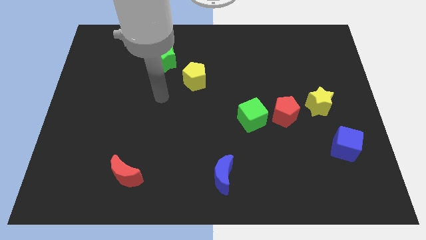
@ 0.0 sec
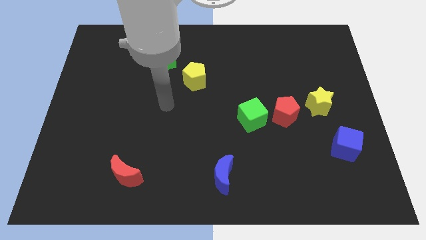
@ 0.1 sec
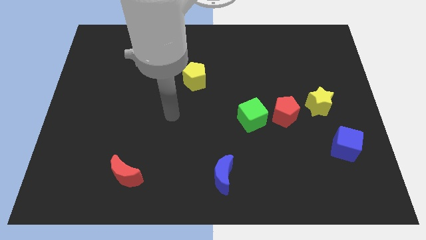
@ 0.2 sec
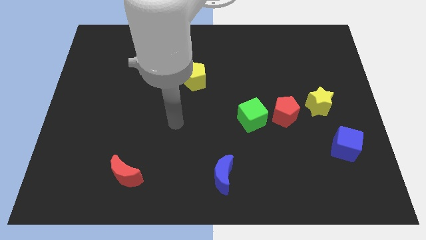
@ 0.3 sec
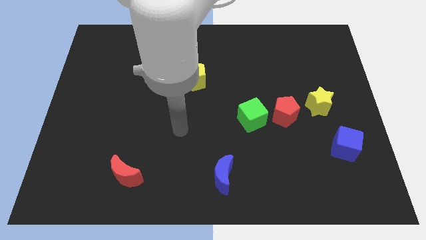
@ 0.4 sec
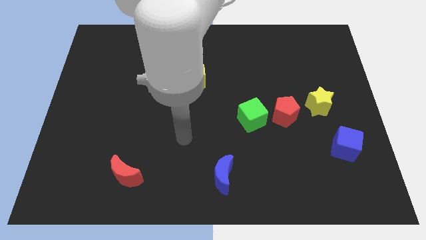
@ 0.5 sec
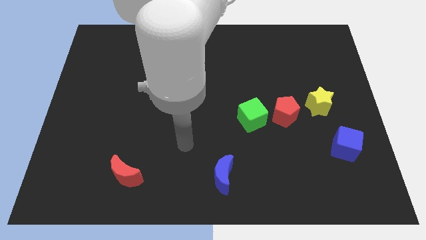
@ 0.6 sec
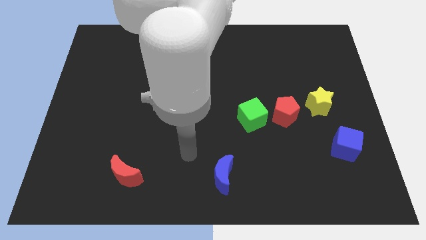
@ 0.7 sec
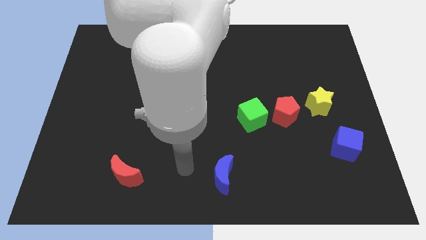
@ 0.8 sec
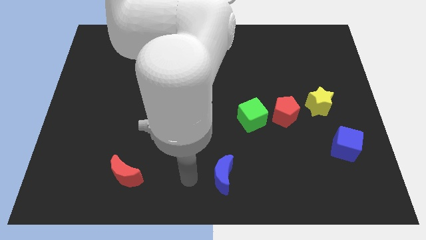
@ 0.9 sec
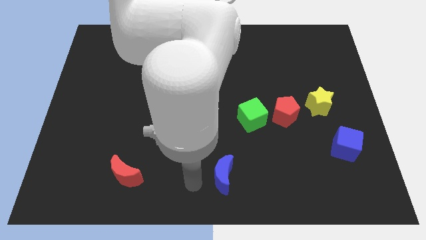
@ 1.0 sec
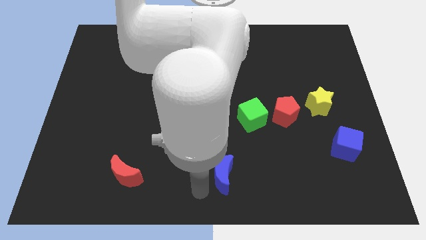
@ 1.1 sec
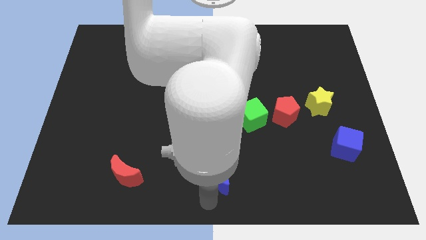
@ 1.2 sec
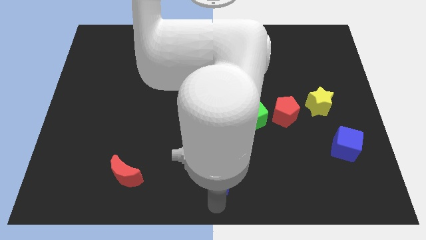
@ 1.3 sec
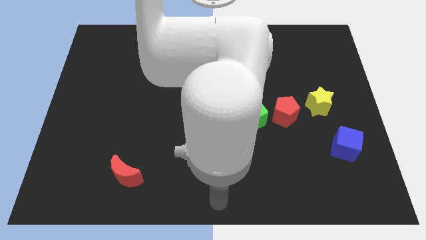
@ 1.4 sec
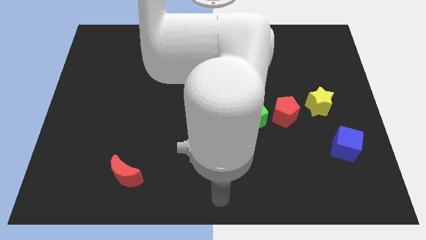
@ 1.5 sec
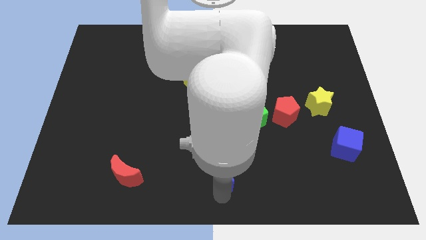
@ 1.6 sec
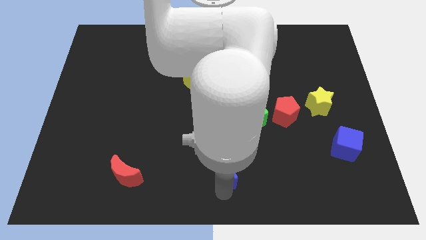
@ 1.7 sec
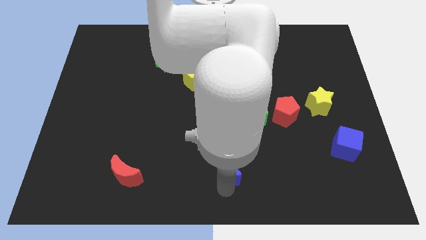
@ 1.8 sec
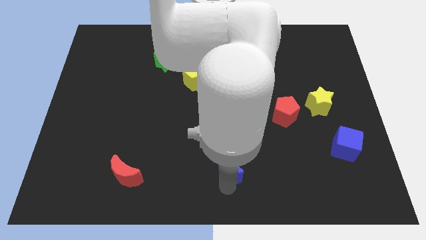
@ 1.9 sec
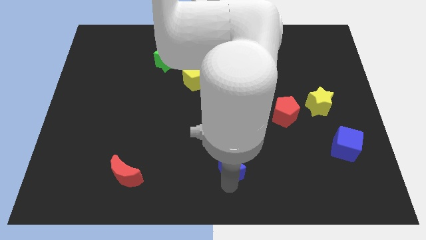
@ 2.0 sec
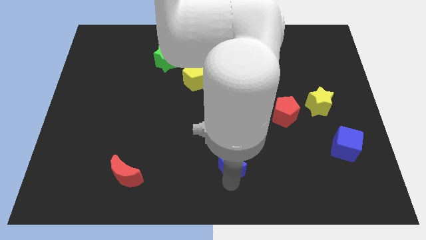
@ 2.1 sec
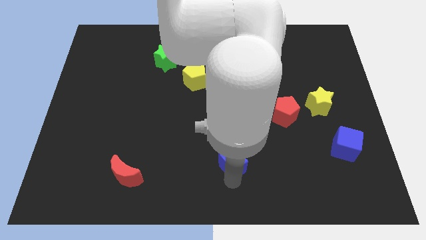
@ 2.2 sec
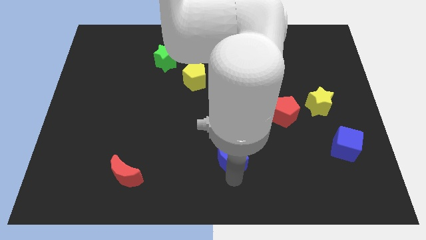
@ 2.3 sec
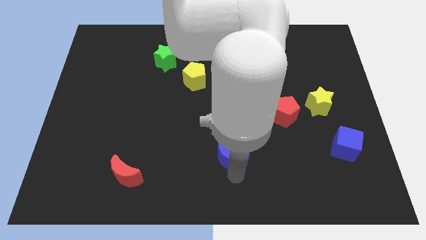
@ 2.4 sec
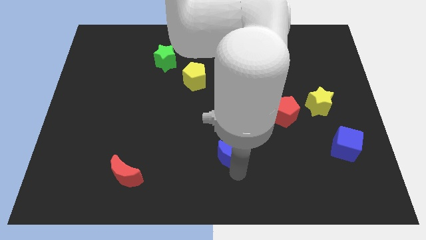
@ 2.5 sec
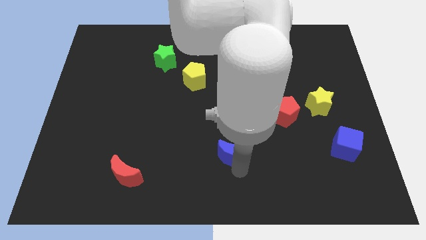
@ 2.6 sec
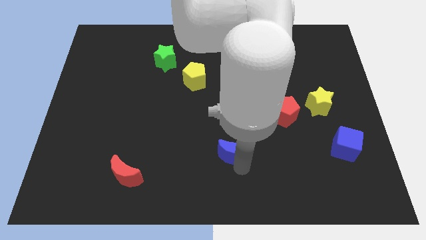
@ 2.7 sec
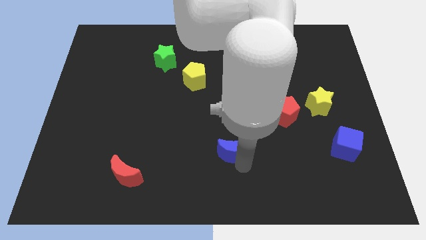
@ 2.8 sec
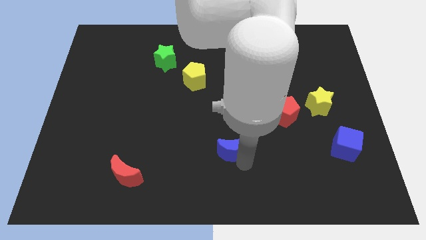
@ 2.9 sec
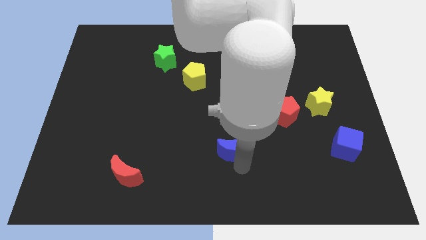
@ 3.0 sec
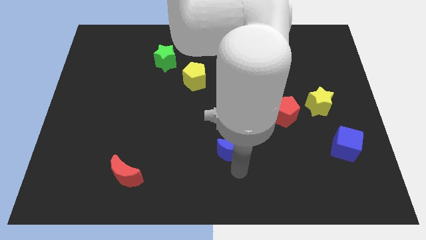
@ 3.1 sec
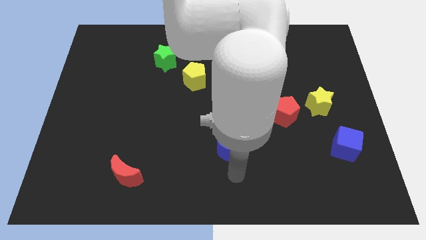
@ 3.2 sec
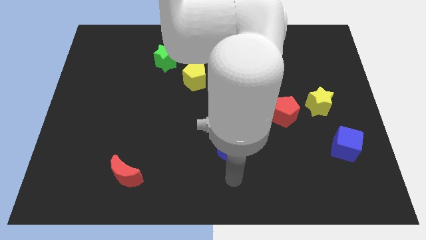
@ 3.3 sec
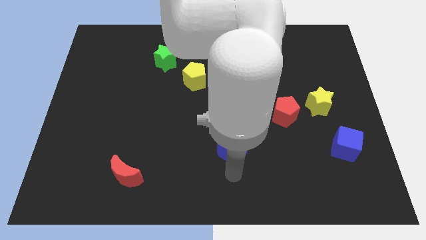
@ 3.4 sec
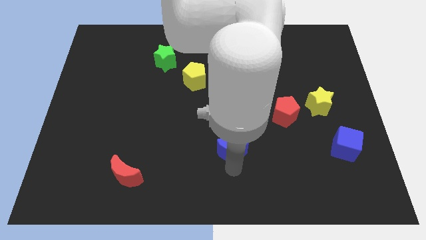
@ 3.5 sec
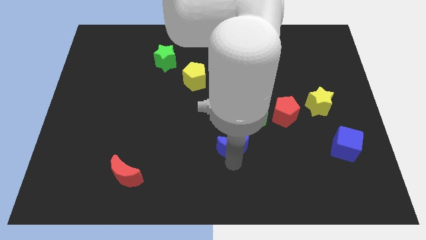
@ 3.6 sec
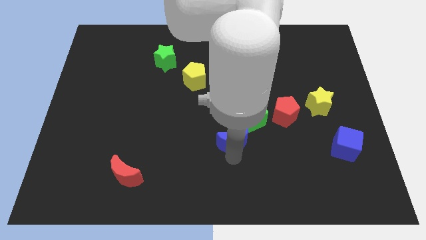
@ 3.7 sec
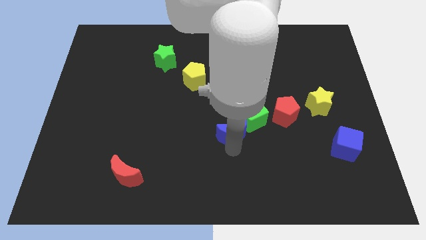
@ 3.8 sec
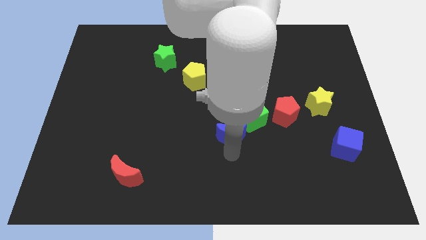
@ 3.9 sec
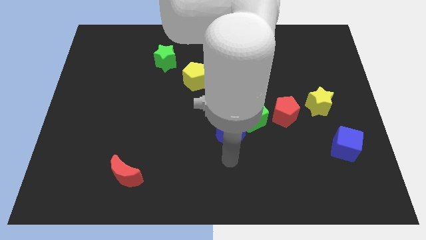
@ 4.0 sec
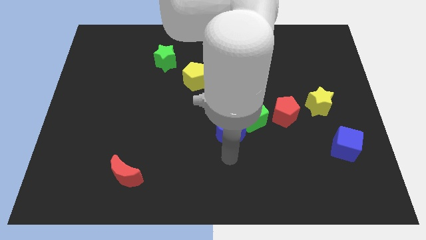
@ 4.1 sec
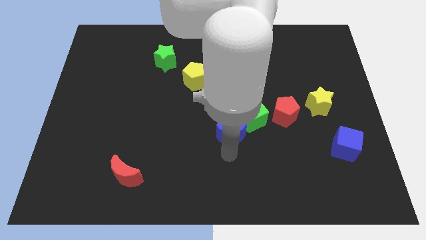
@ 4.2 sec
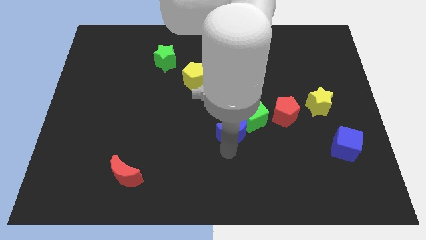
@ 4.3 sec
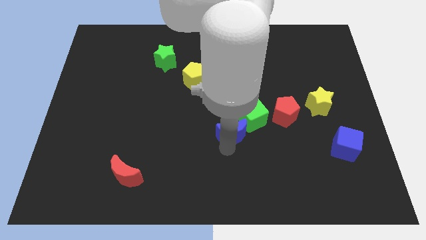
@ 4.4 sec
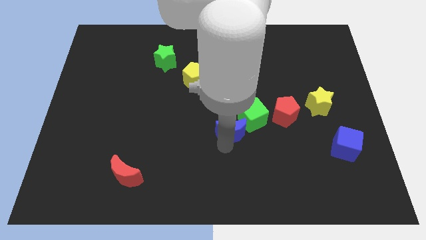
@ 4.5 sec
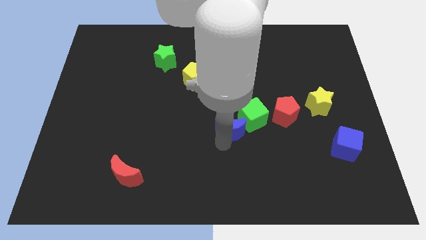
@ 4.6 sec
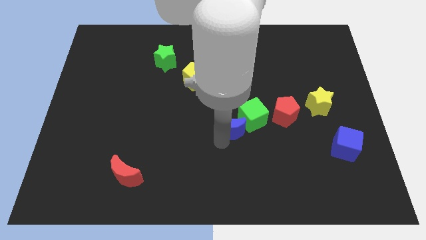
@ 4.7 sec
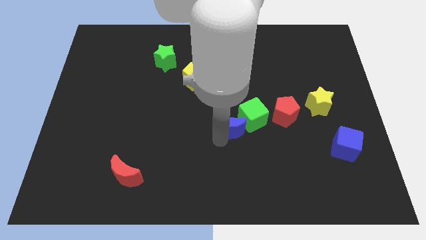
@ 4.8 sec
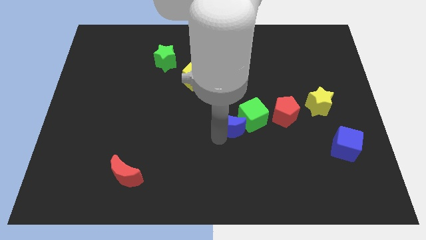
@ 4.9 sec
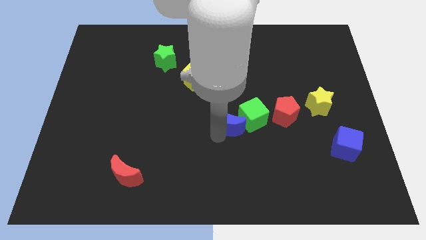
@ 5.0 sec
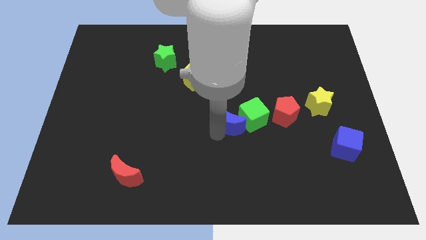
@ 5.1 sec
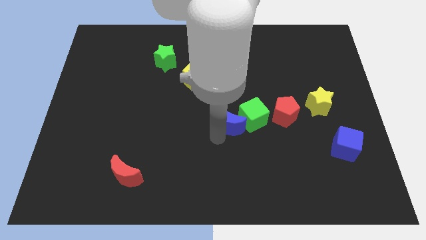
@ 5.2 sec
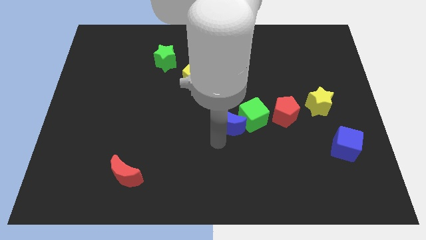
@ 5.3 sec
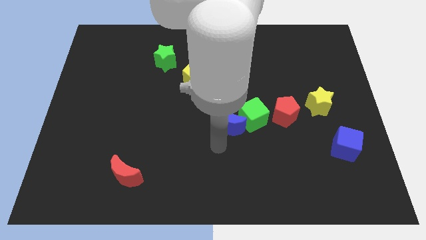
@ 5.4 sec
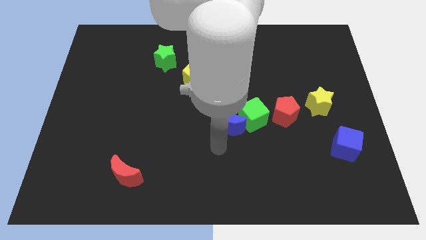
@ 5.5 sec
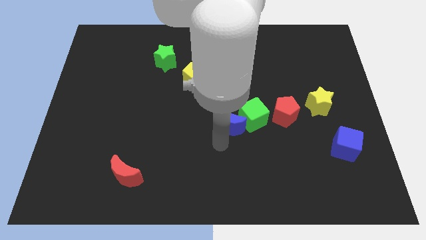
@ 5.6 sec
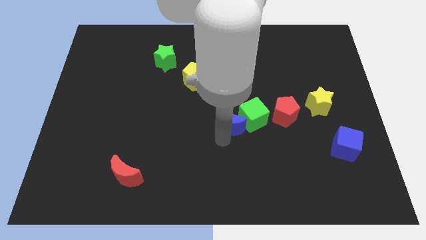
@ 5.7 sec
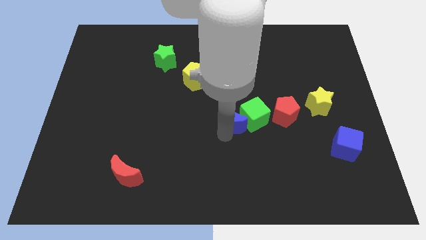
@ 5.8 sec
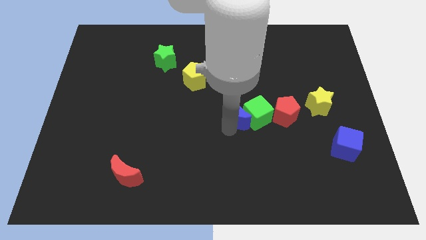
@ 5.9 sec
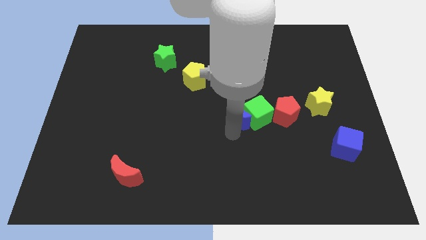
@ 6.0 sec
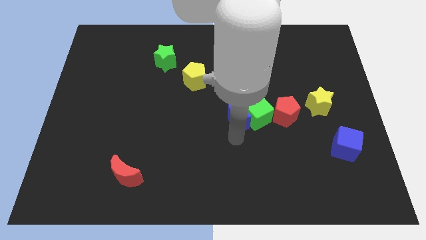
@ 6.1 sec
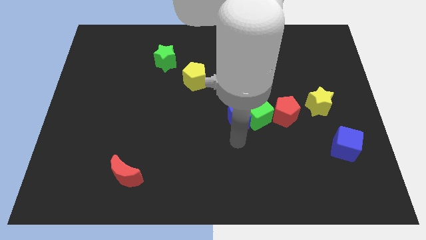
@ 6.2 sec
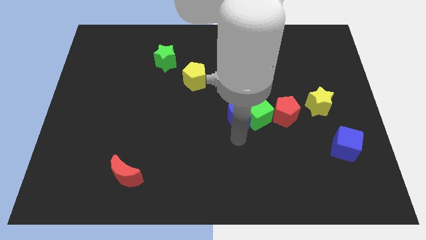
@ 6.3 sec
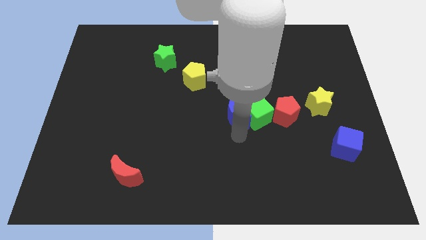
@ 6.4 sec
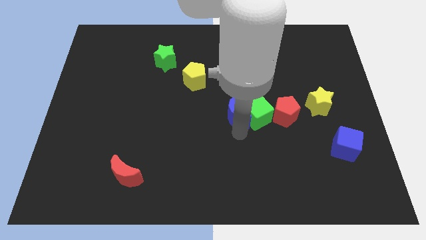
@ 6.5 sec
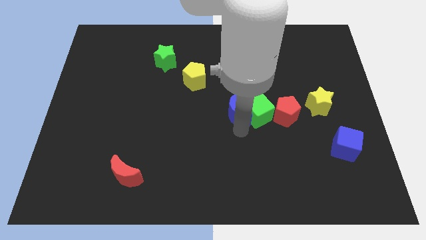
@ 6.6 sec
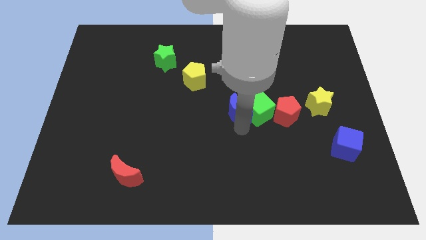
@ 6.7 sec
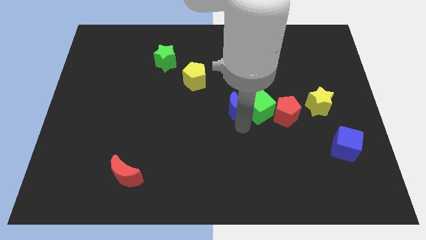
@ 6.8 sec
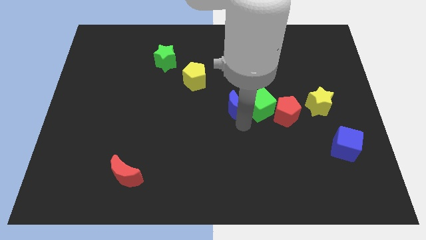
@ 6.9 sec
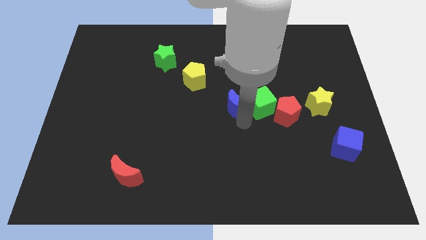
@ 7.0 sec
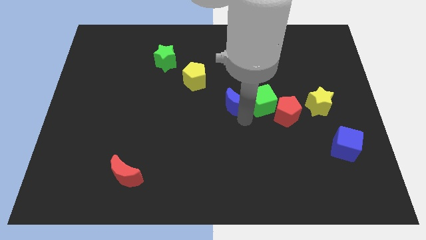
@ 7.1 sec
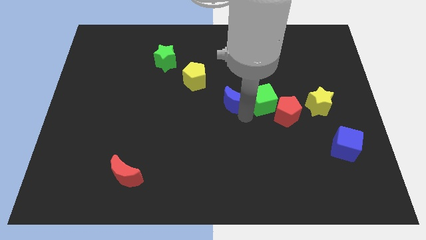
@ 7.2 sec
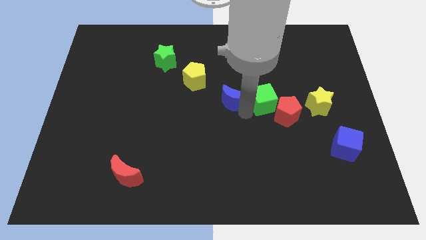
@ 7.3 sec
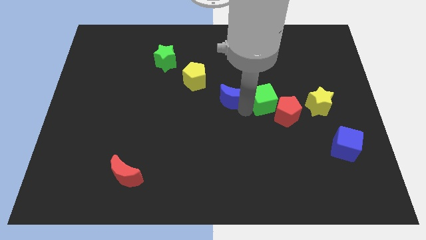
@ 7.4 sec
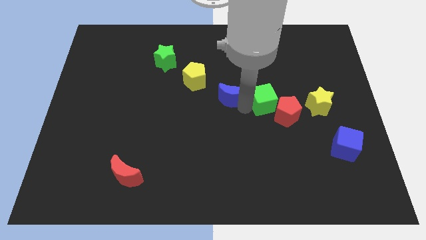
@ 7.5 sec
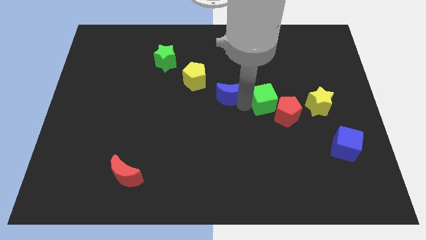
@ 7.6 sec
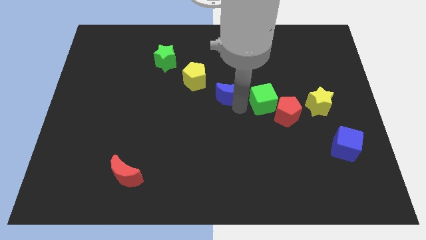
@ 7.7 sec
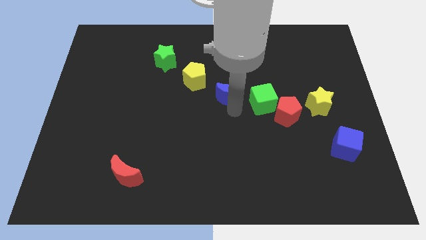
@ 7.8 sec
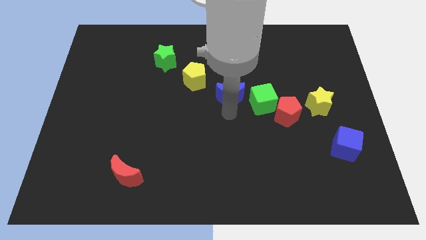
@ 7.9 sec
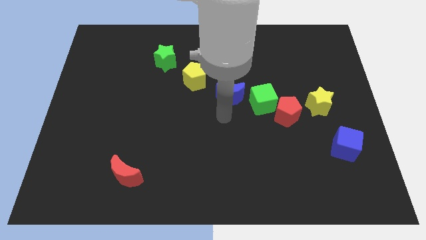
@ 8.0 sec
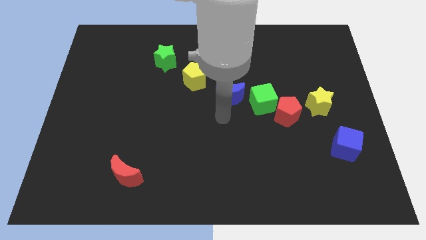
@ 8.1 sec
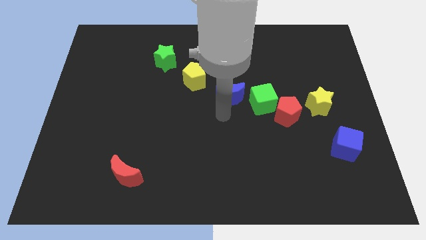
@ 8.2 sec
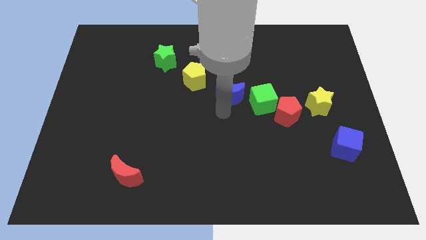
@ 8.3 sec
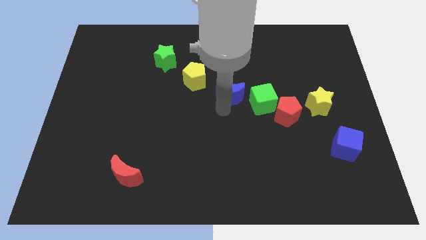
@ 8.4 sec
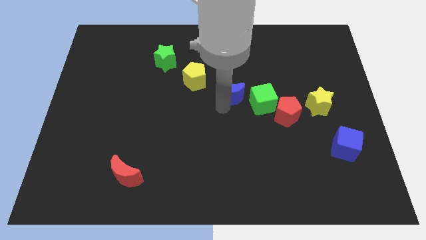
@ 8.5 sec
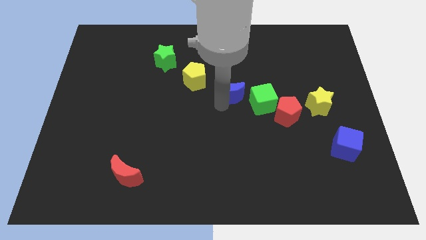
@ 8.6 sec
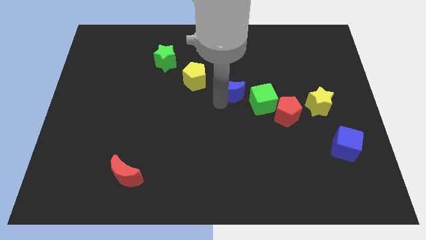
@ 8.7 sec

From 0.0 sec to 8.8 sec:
put the blue moon to the right of the yellow pentagon
